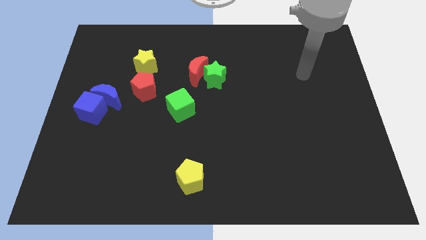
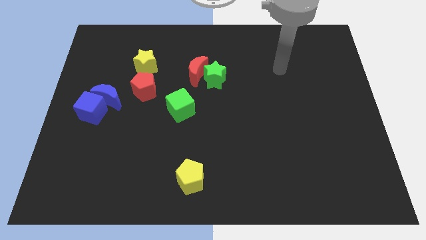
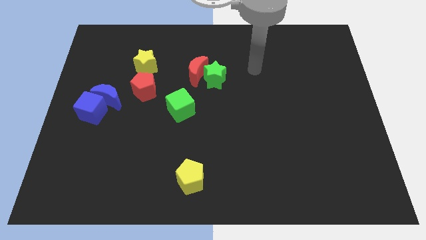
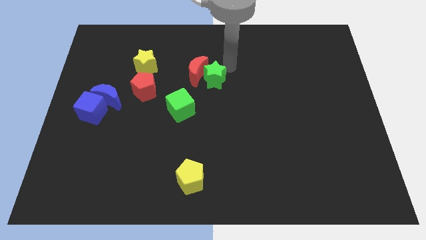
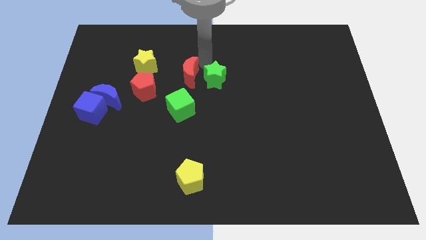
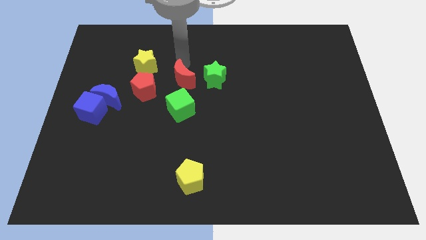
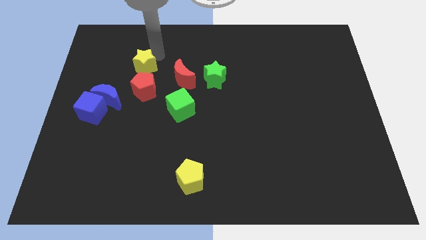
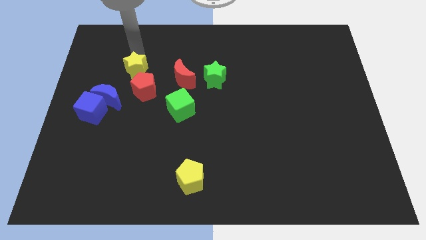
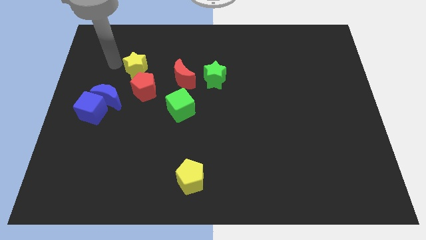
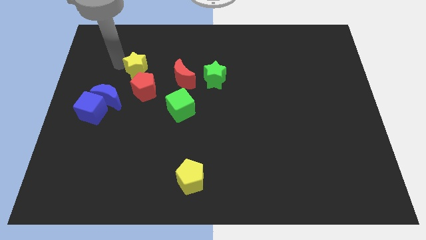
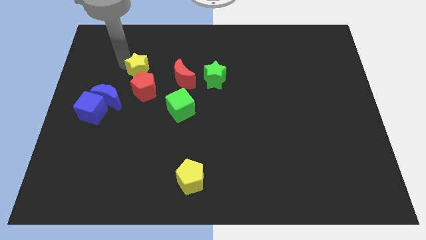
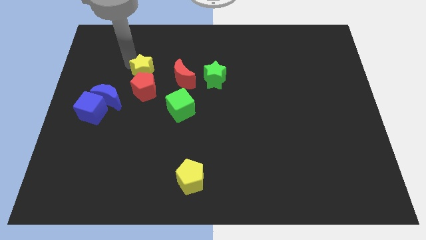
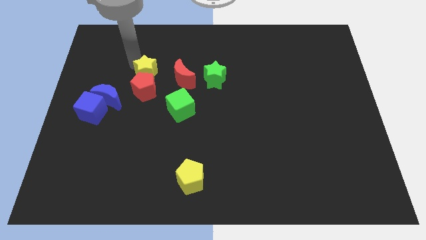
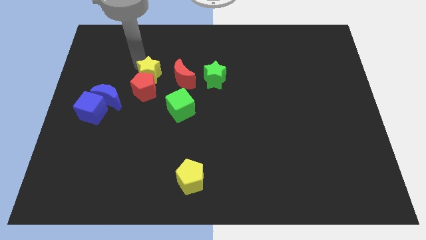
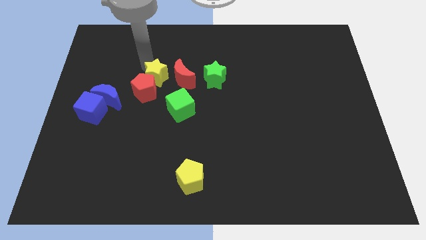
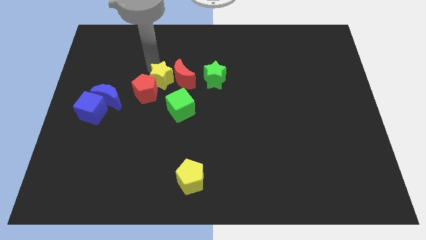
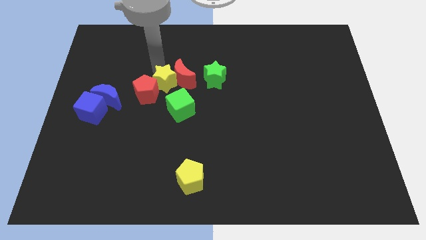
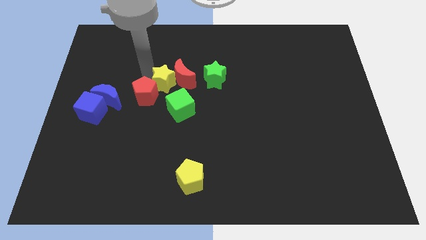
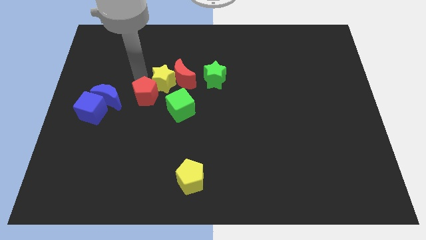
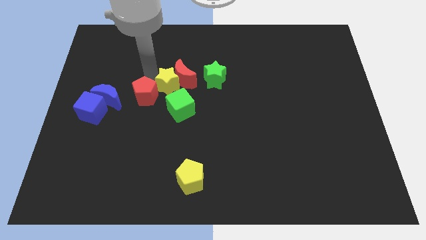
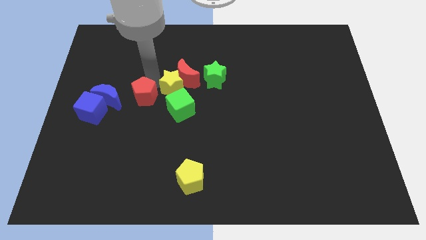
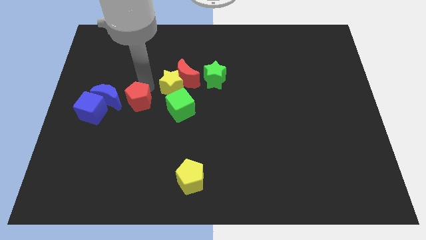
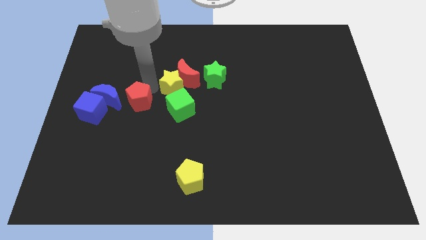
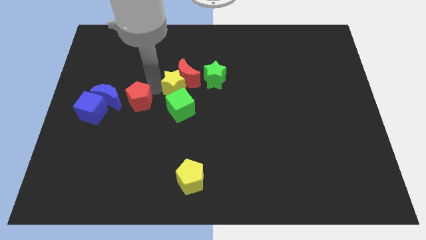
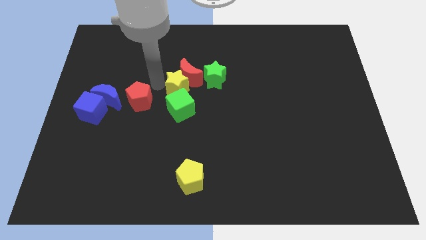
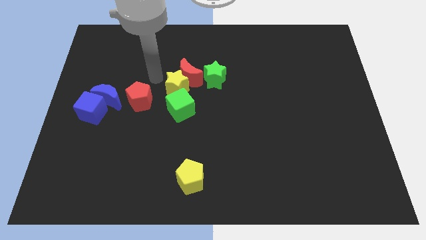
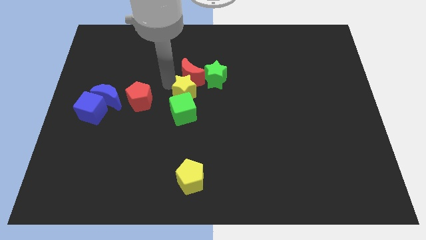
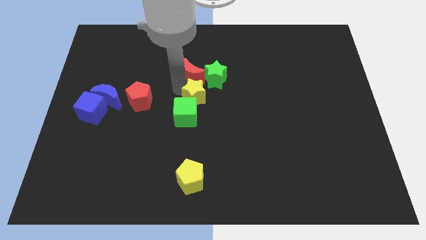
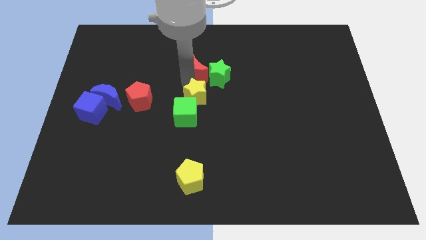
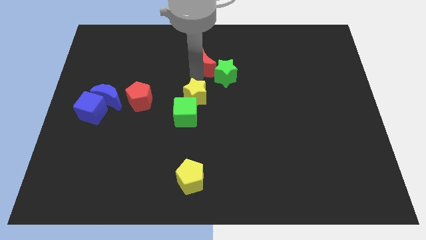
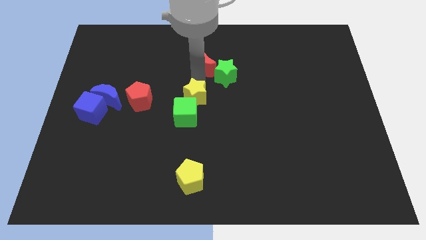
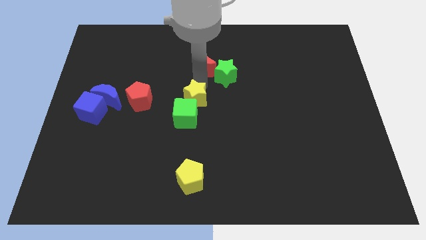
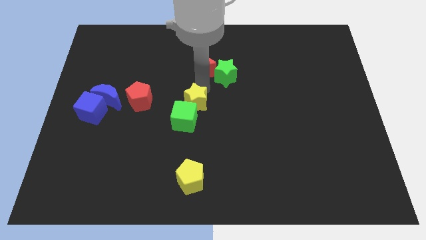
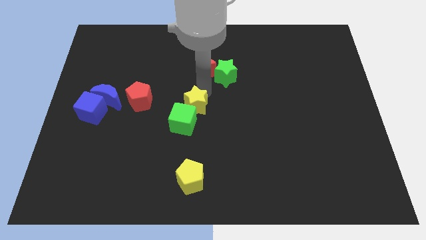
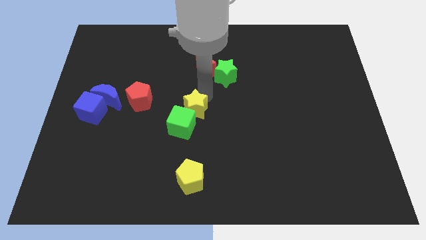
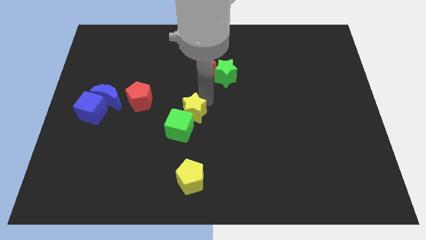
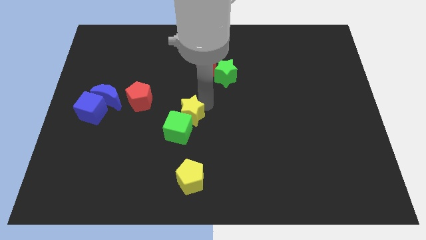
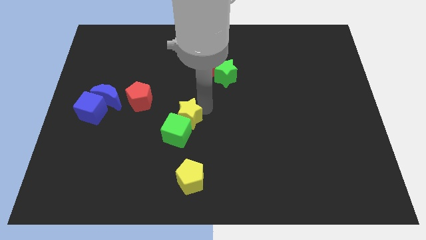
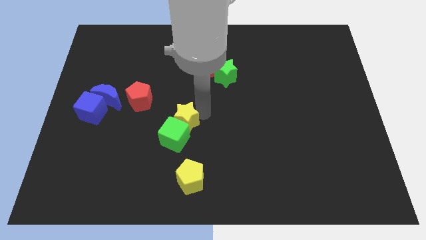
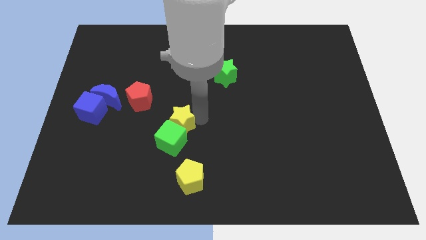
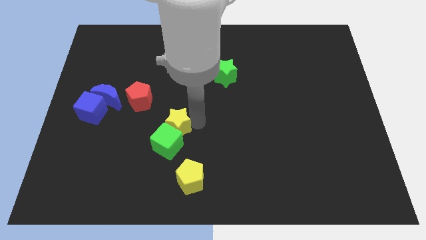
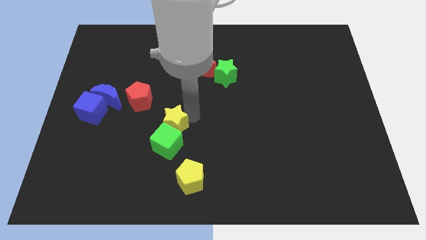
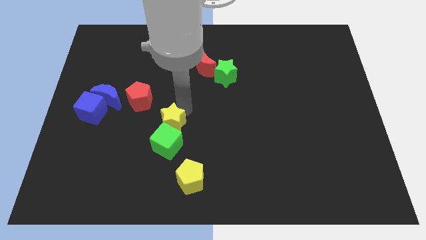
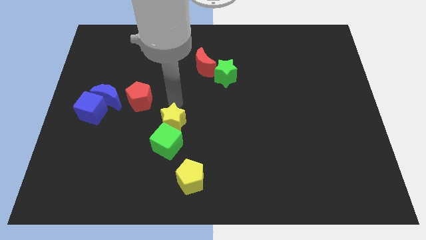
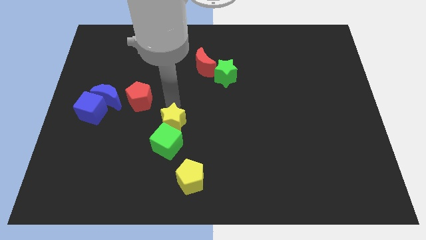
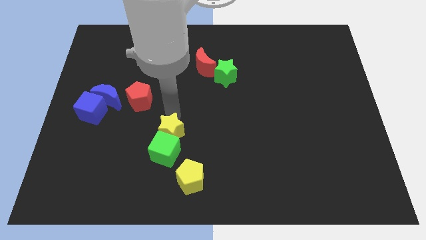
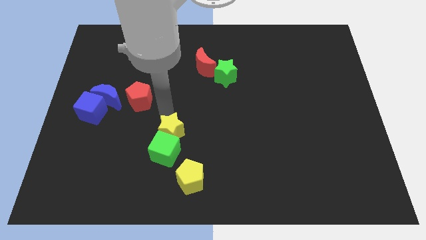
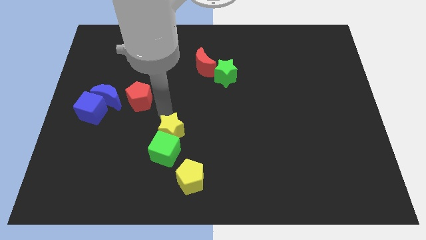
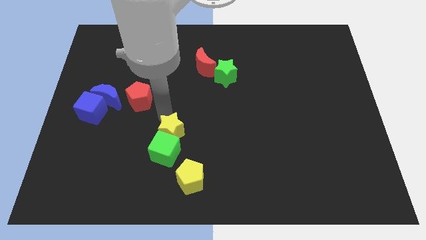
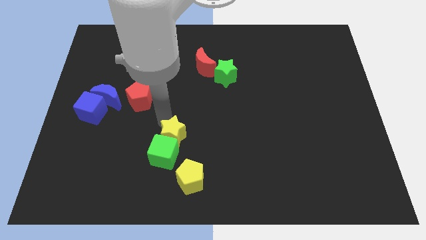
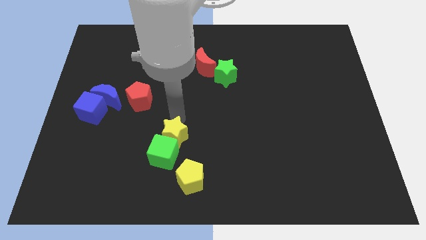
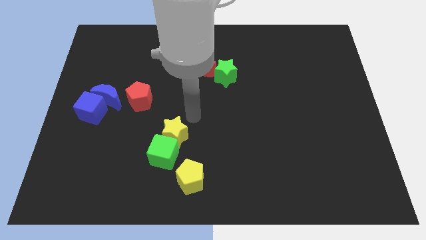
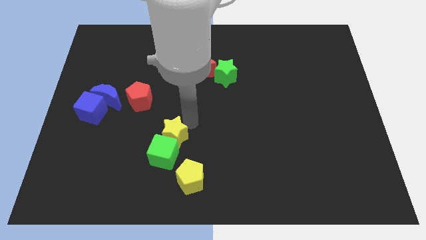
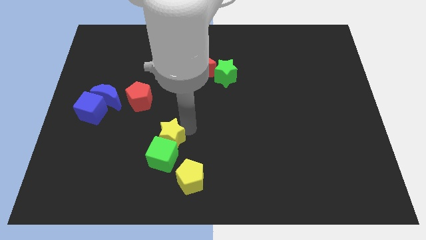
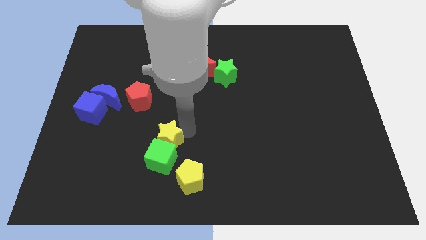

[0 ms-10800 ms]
slide the yellow star down

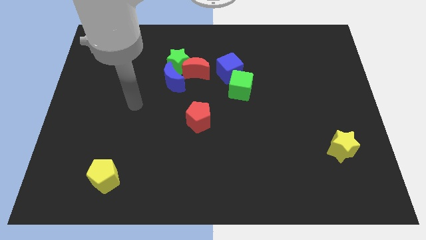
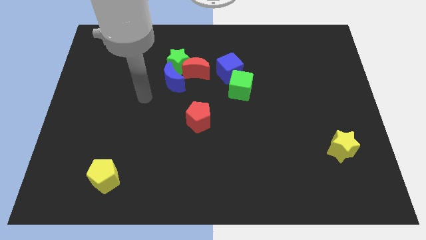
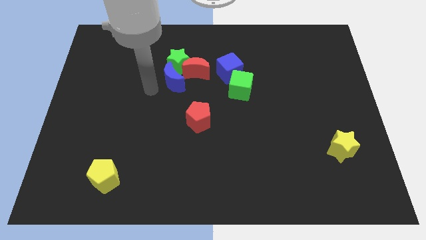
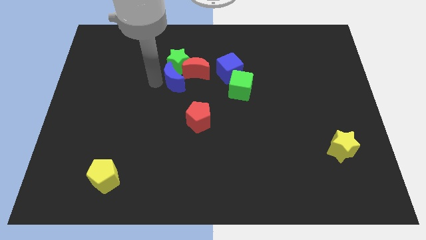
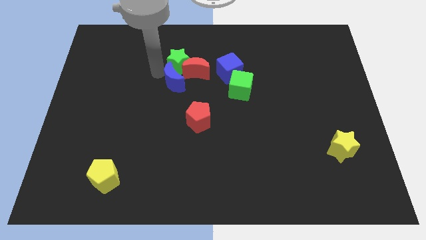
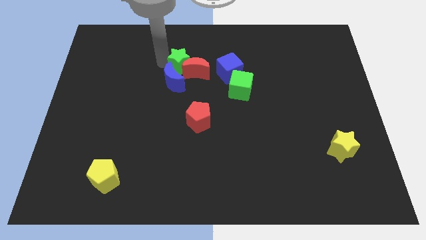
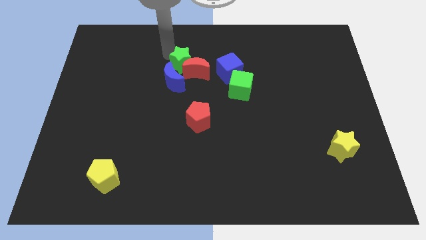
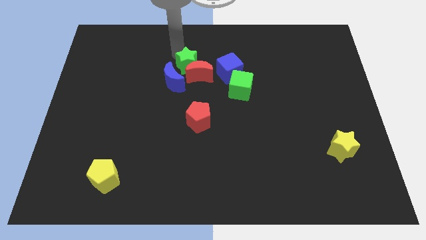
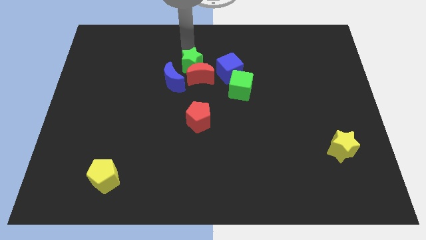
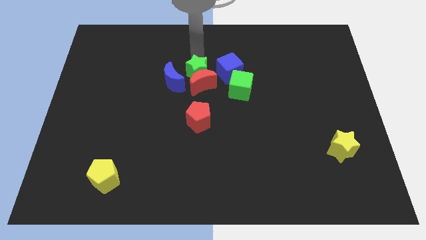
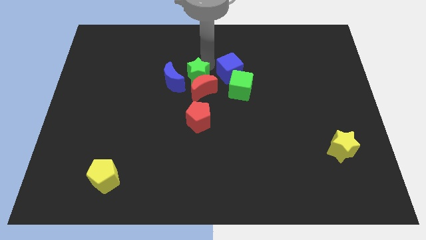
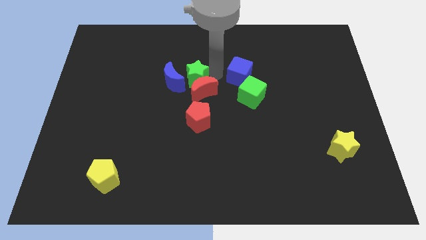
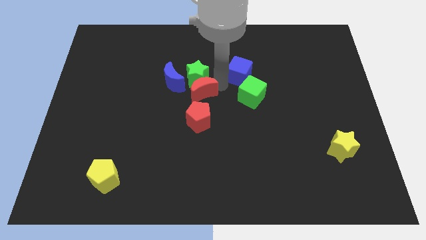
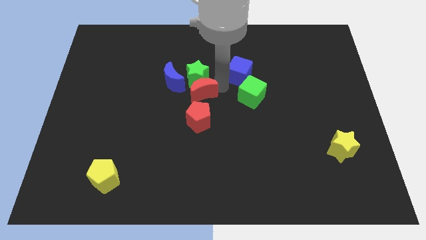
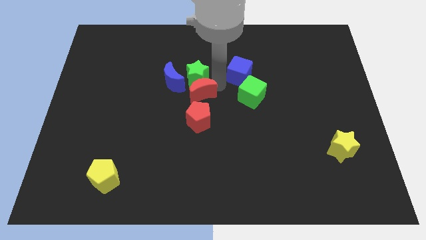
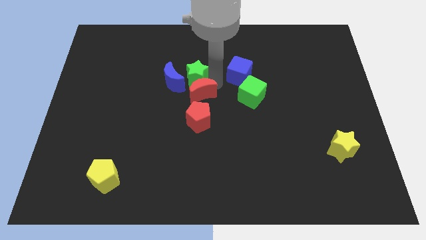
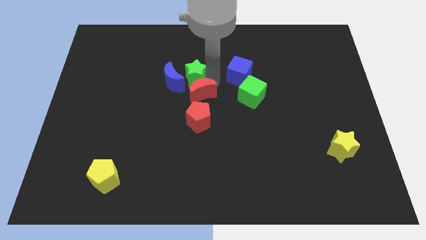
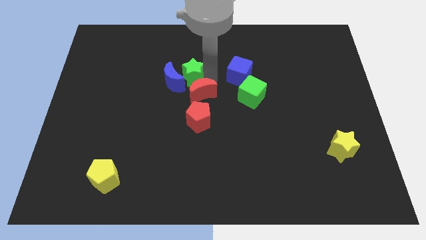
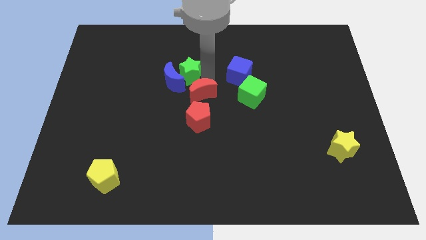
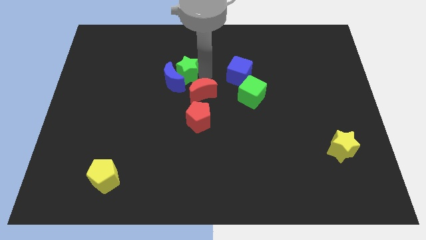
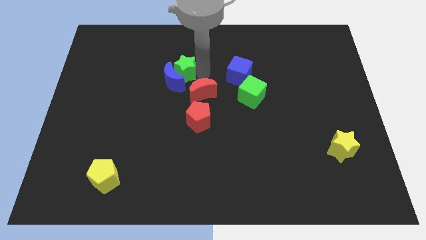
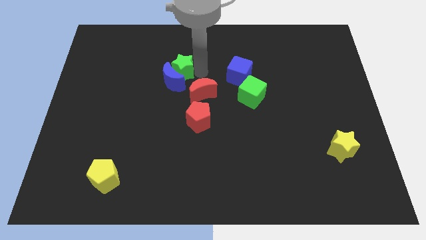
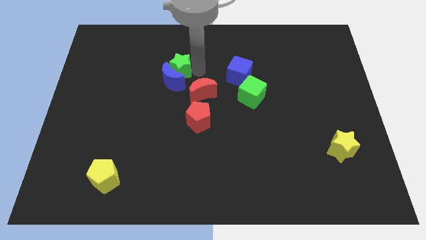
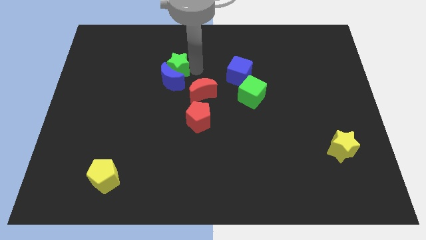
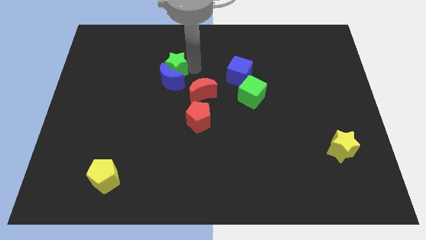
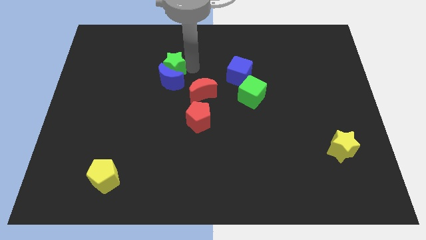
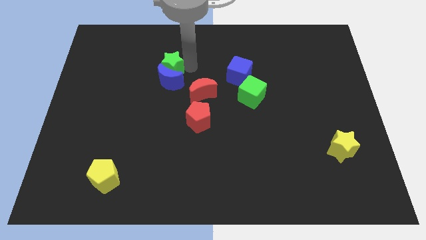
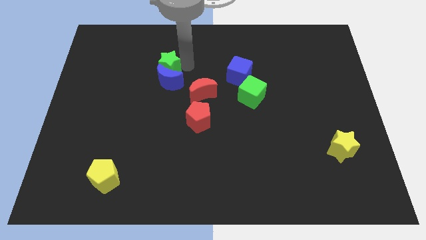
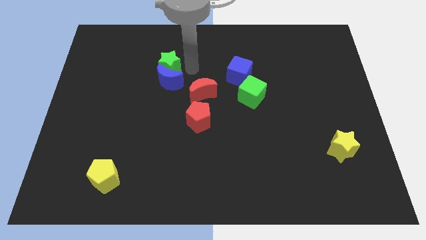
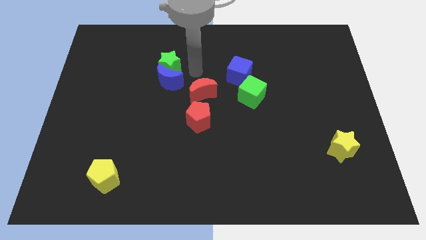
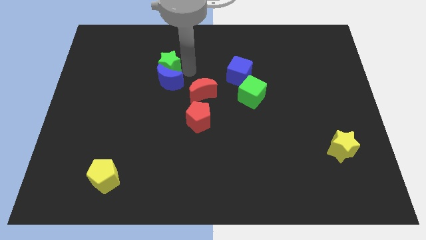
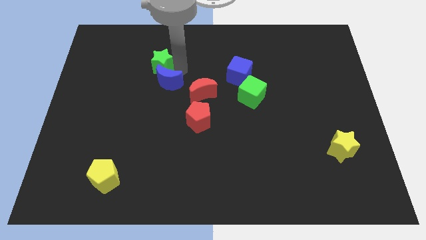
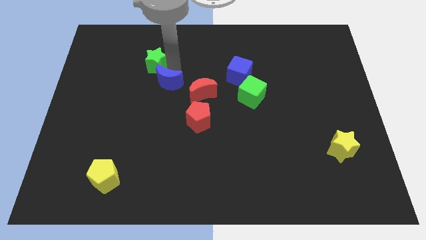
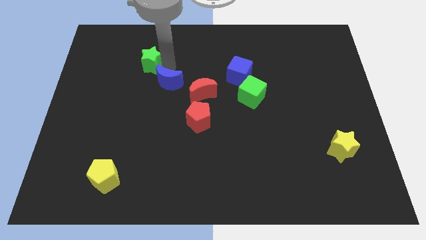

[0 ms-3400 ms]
slightly push the green star to the left
